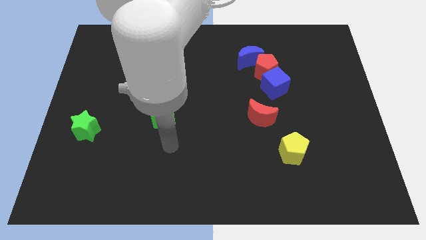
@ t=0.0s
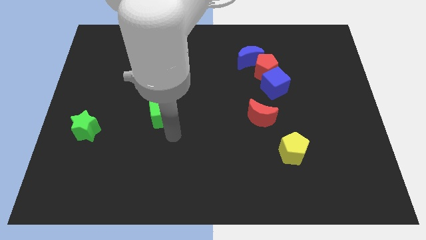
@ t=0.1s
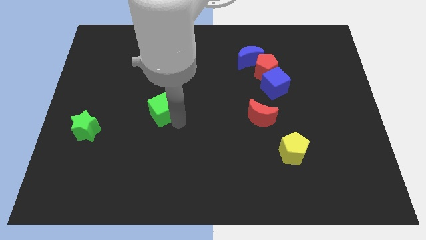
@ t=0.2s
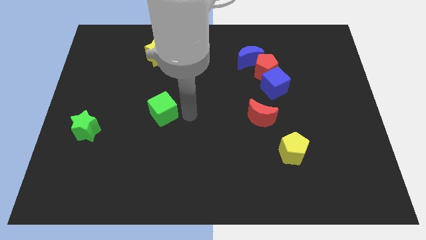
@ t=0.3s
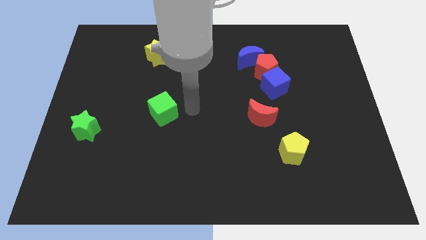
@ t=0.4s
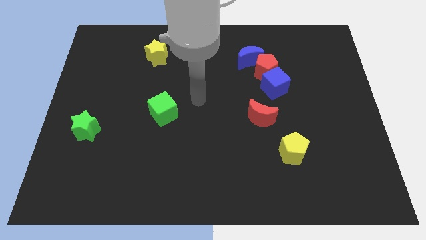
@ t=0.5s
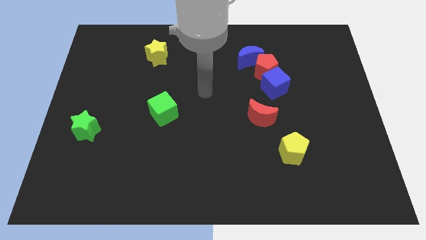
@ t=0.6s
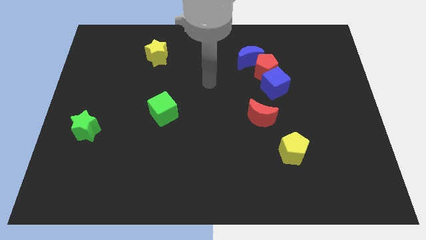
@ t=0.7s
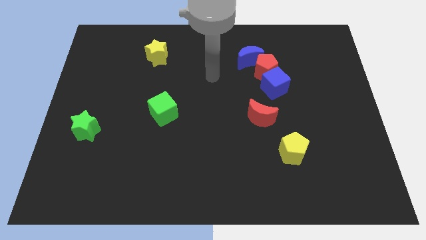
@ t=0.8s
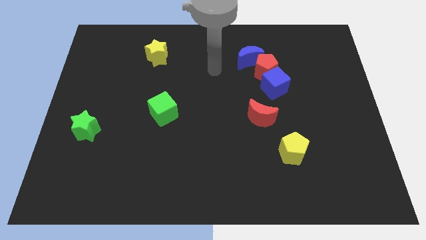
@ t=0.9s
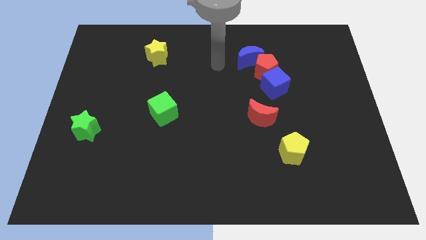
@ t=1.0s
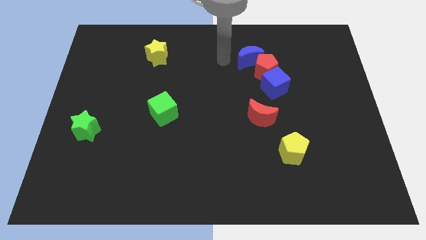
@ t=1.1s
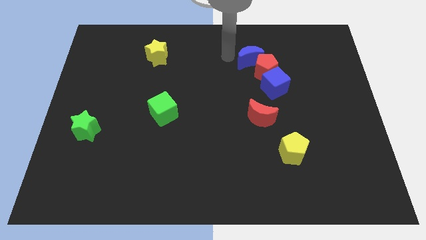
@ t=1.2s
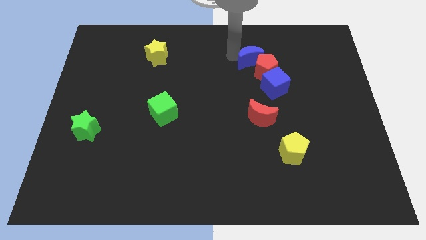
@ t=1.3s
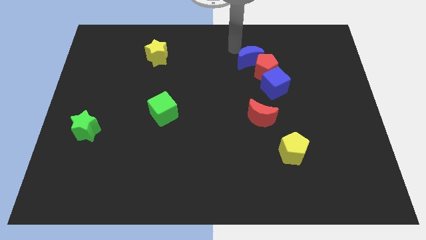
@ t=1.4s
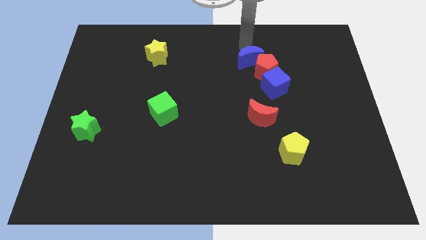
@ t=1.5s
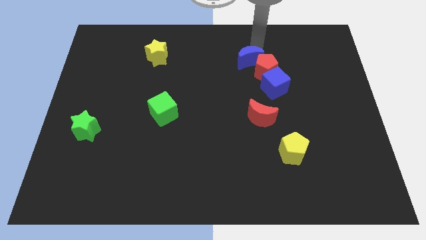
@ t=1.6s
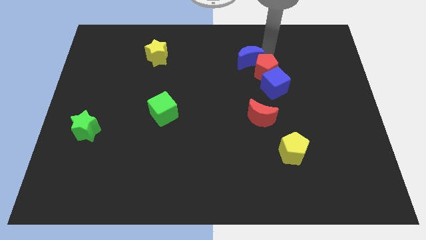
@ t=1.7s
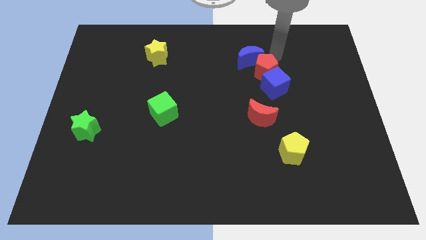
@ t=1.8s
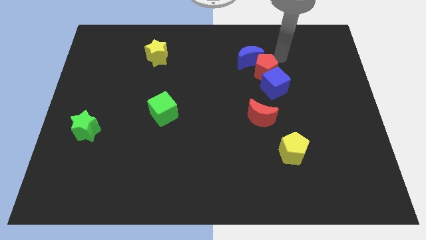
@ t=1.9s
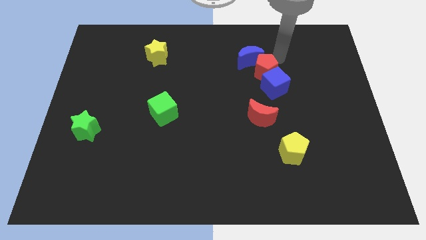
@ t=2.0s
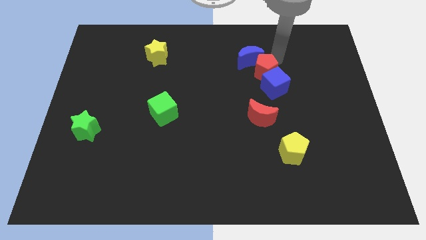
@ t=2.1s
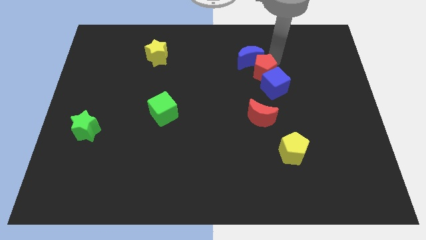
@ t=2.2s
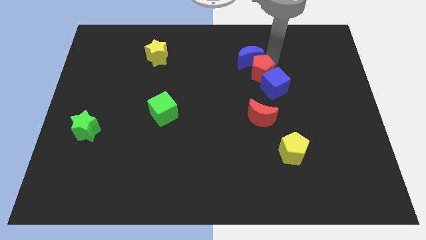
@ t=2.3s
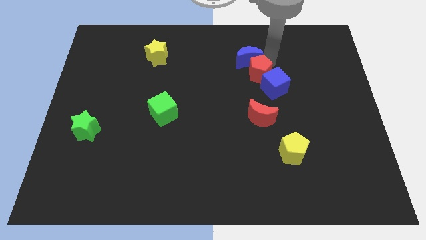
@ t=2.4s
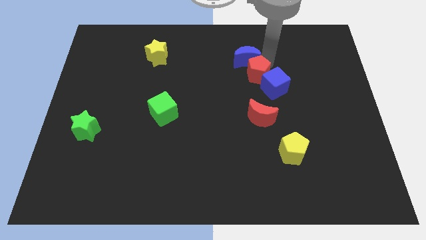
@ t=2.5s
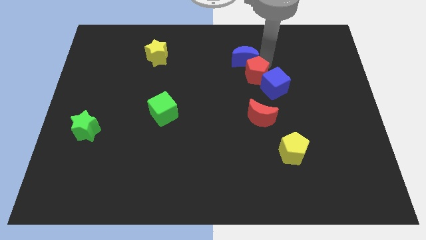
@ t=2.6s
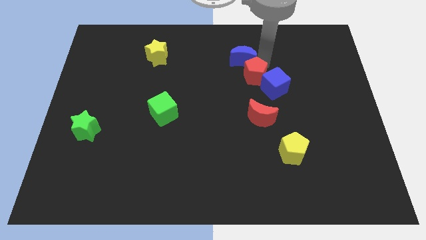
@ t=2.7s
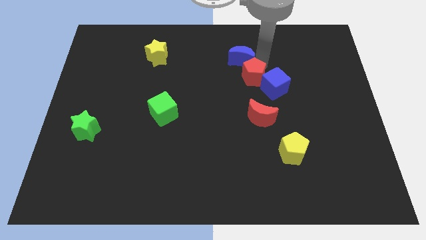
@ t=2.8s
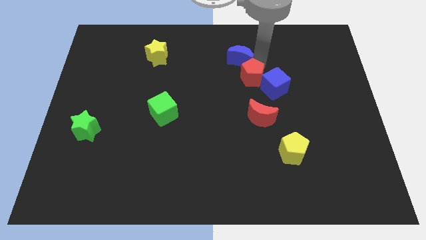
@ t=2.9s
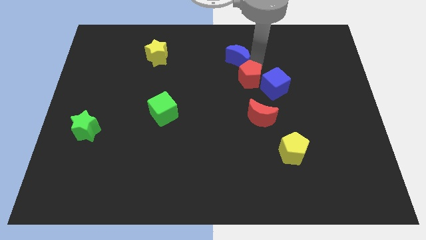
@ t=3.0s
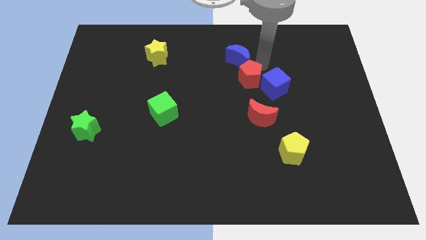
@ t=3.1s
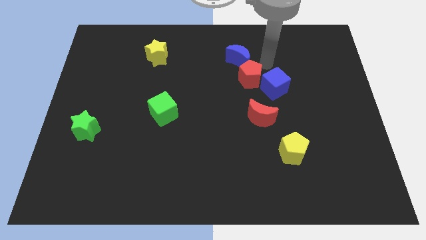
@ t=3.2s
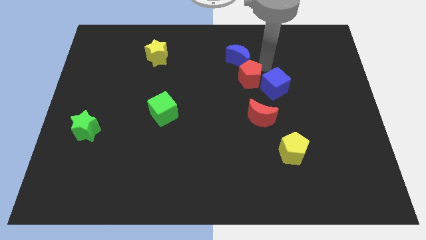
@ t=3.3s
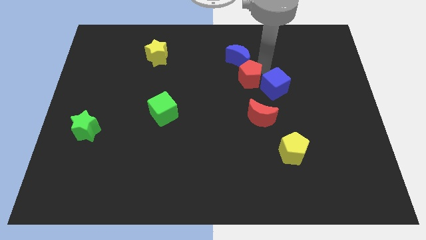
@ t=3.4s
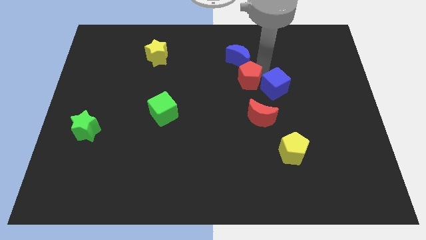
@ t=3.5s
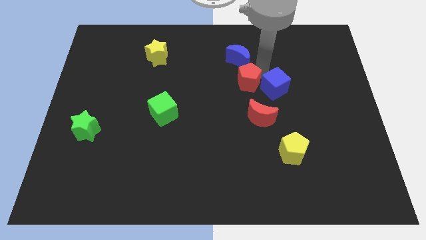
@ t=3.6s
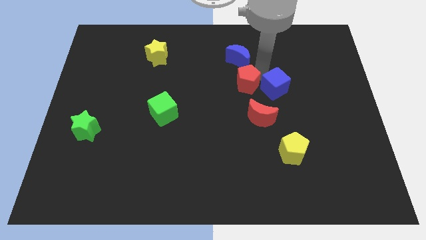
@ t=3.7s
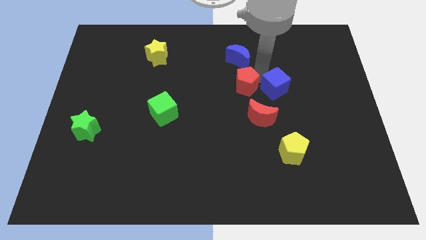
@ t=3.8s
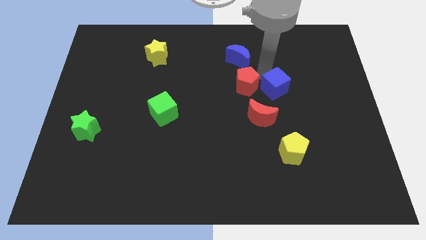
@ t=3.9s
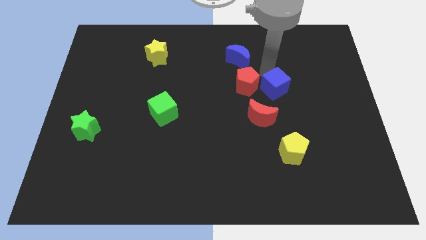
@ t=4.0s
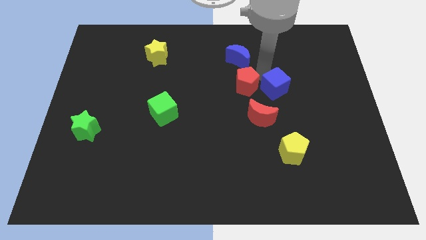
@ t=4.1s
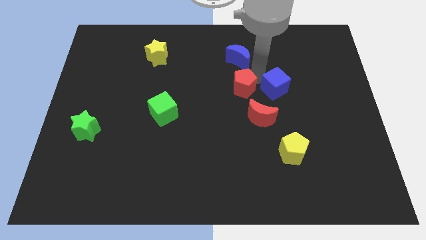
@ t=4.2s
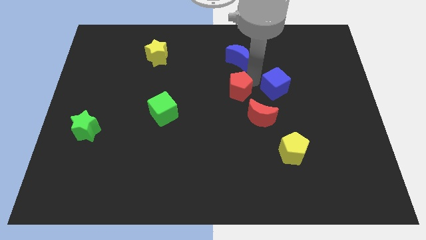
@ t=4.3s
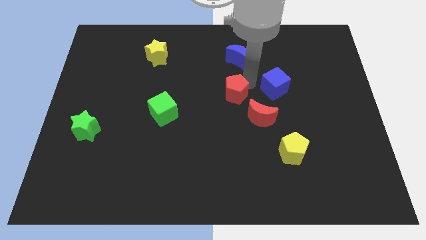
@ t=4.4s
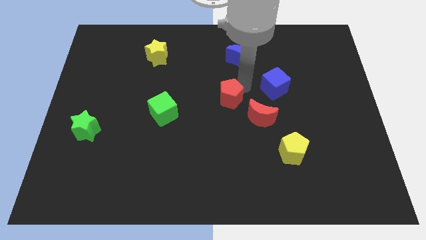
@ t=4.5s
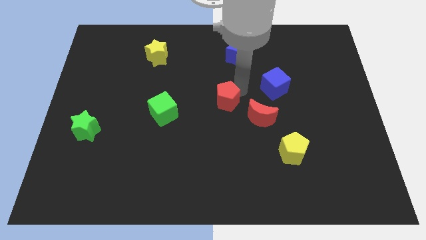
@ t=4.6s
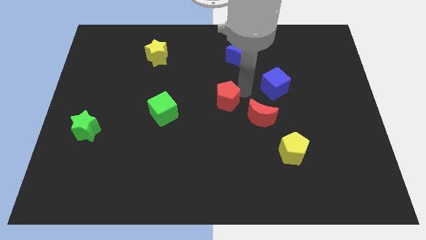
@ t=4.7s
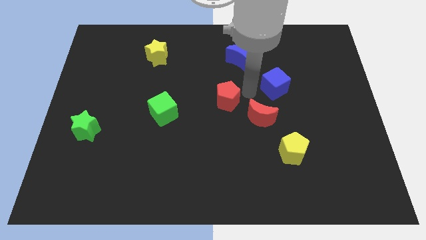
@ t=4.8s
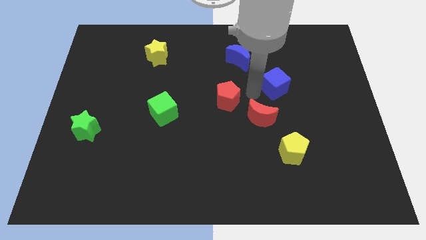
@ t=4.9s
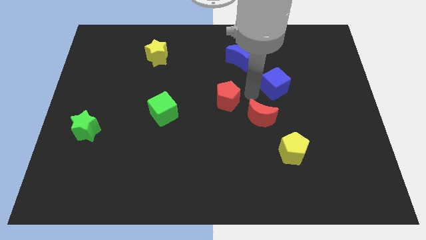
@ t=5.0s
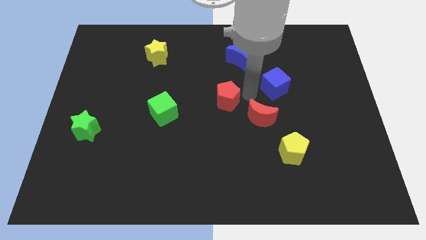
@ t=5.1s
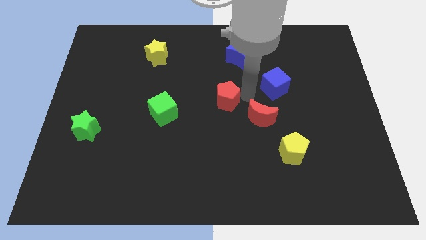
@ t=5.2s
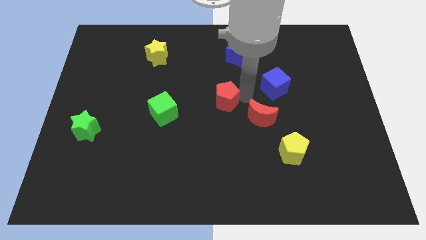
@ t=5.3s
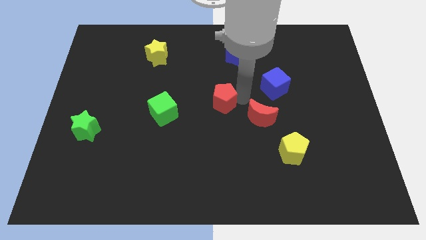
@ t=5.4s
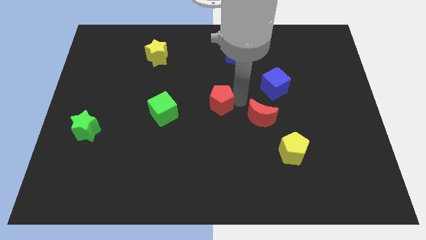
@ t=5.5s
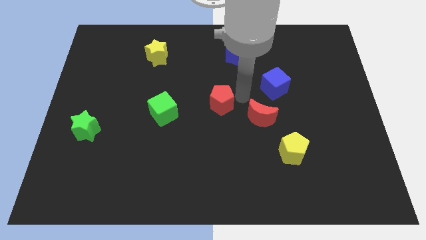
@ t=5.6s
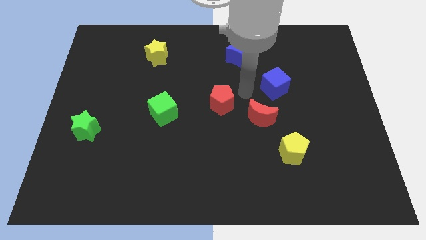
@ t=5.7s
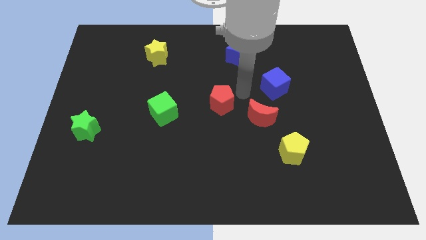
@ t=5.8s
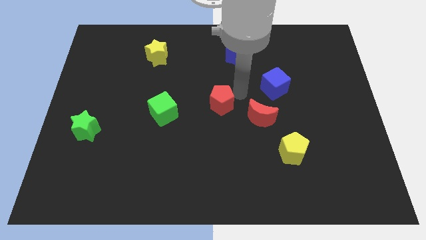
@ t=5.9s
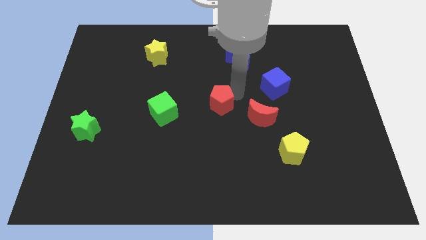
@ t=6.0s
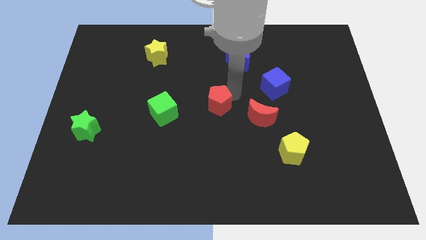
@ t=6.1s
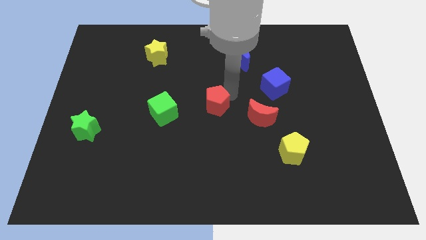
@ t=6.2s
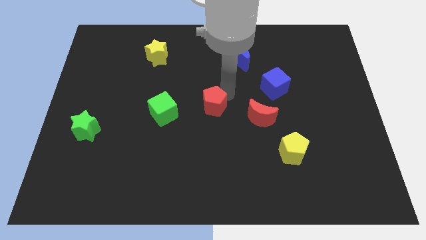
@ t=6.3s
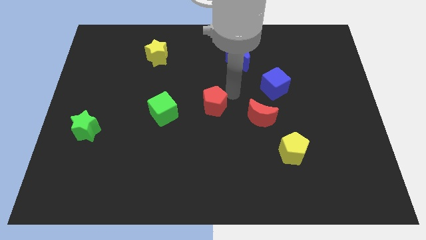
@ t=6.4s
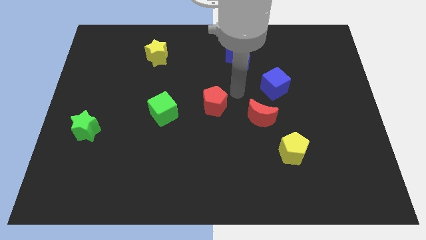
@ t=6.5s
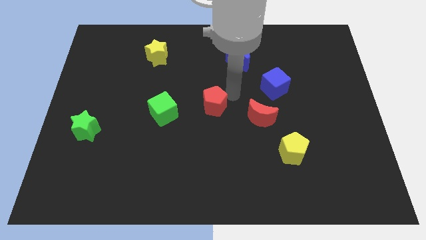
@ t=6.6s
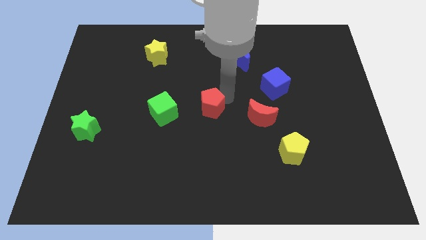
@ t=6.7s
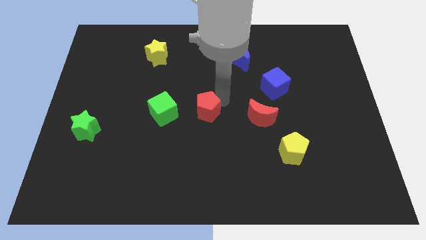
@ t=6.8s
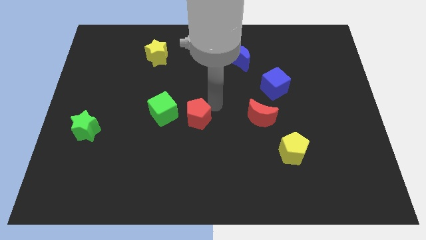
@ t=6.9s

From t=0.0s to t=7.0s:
push the red pentagon downwards and then to the left

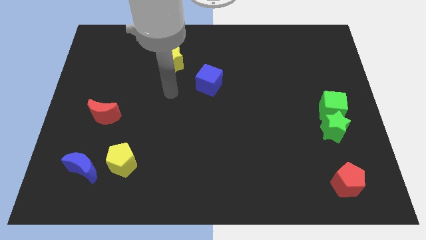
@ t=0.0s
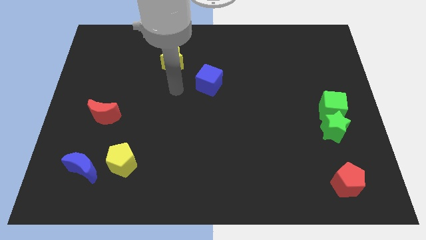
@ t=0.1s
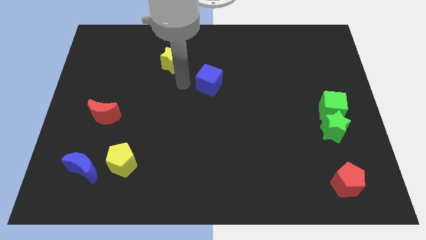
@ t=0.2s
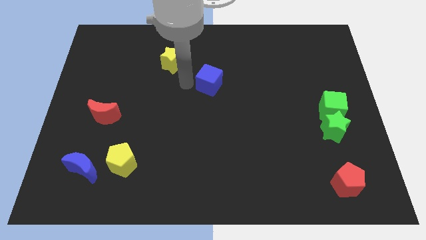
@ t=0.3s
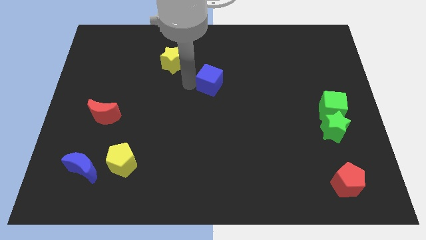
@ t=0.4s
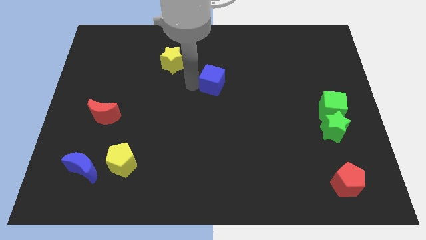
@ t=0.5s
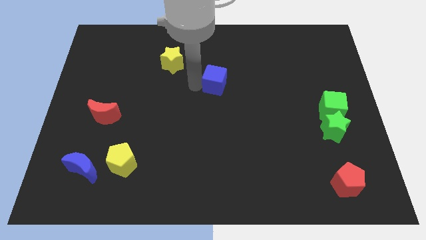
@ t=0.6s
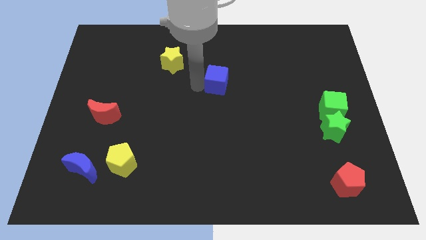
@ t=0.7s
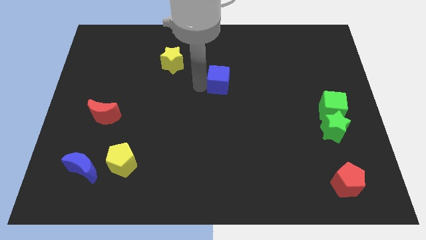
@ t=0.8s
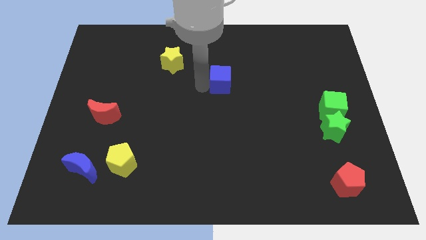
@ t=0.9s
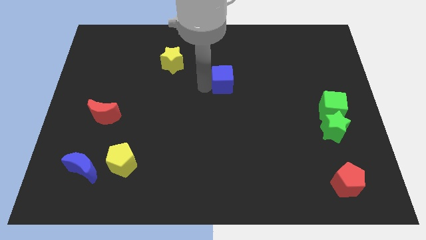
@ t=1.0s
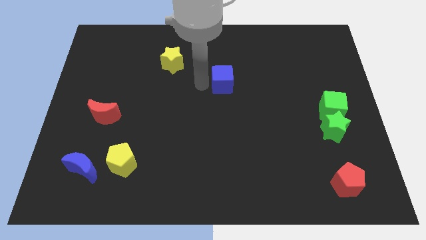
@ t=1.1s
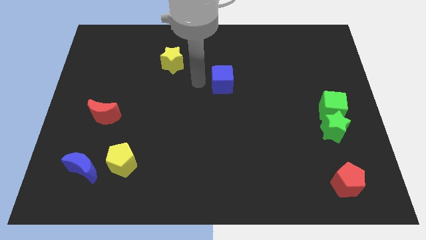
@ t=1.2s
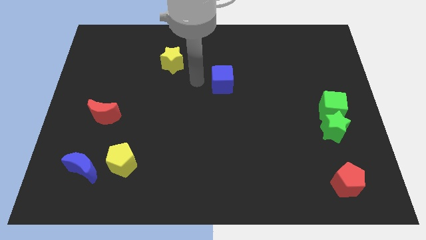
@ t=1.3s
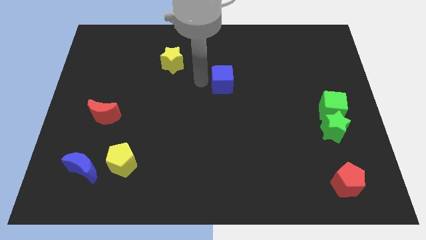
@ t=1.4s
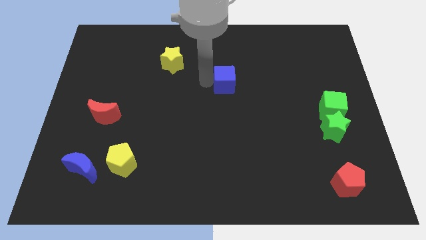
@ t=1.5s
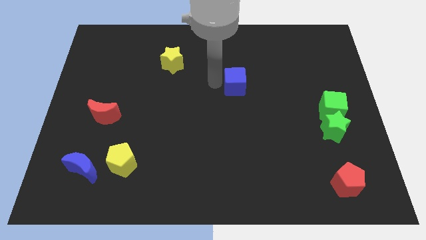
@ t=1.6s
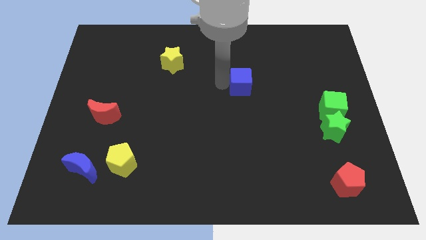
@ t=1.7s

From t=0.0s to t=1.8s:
push the blue cube a little to the right
